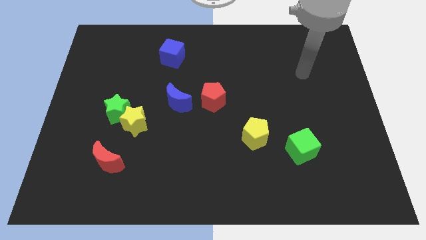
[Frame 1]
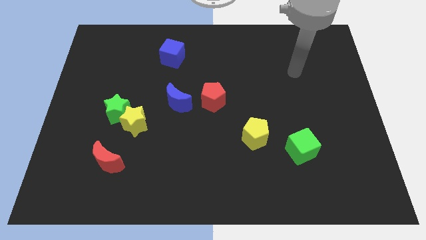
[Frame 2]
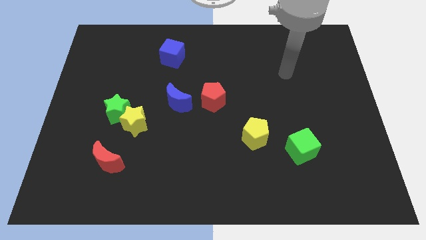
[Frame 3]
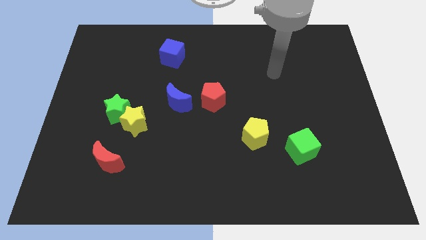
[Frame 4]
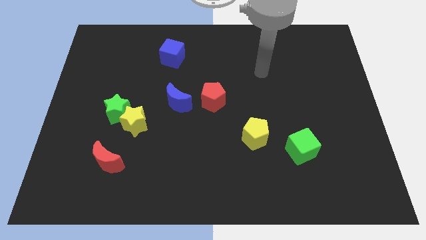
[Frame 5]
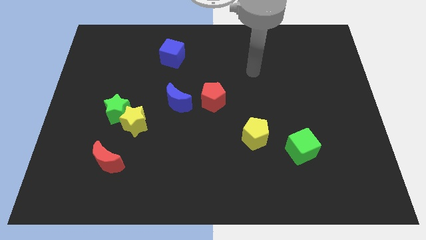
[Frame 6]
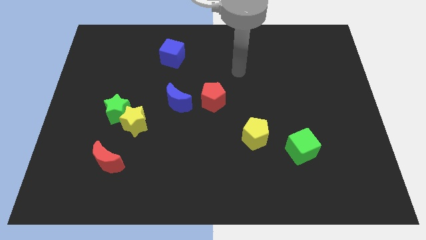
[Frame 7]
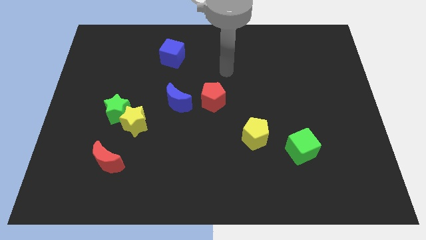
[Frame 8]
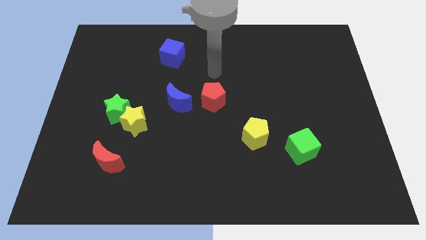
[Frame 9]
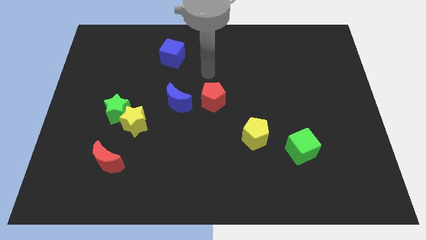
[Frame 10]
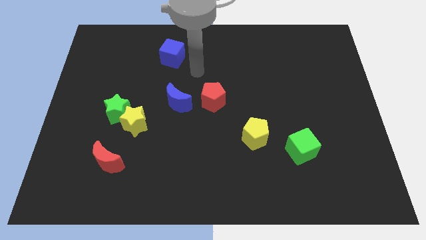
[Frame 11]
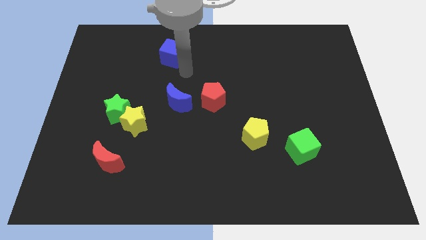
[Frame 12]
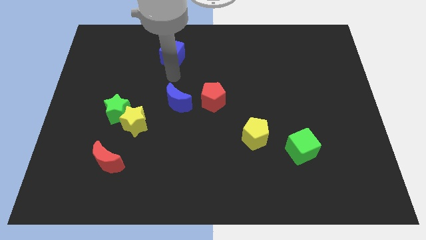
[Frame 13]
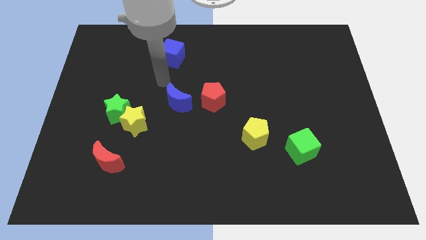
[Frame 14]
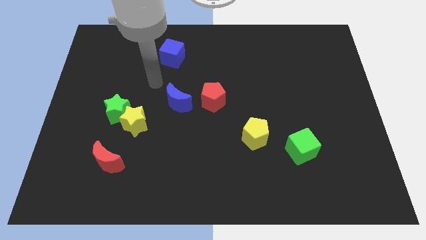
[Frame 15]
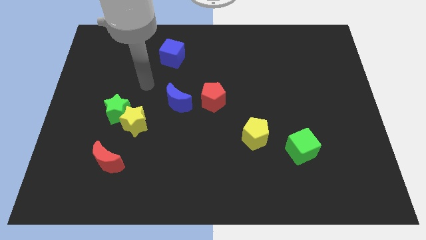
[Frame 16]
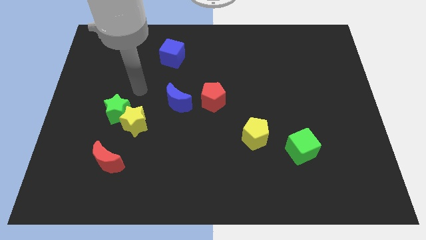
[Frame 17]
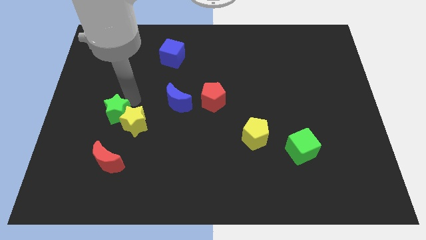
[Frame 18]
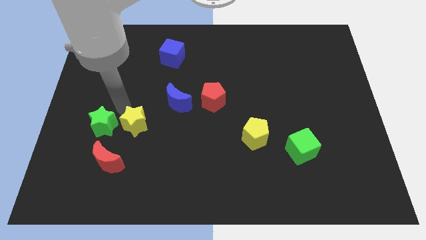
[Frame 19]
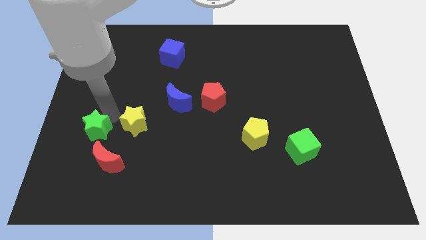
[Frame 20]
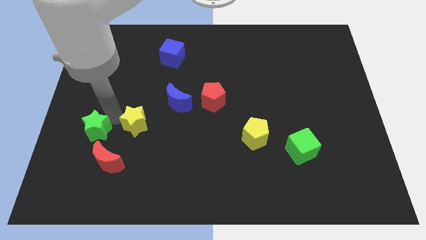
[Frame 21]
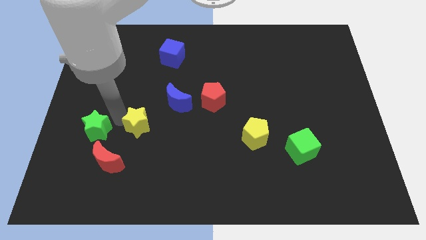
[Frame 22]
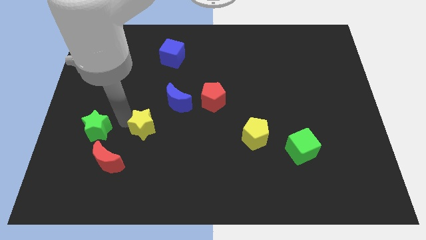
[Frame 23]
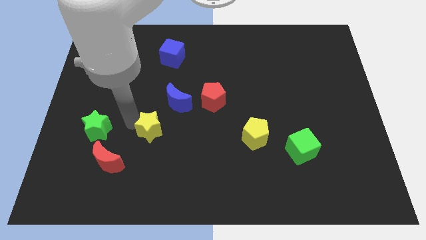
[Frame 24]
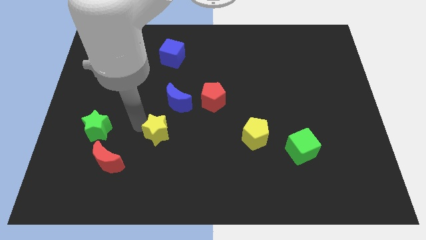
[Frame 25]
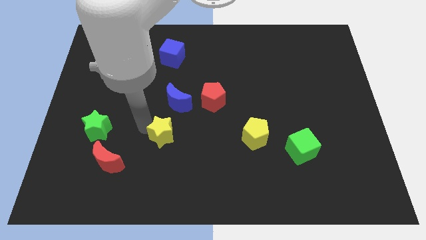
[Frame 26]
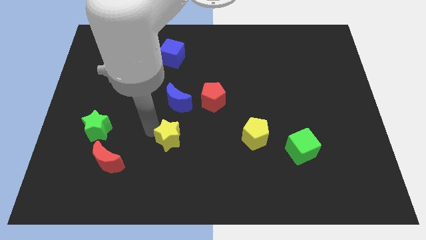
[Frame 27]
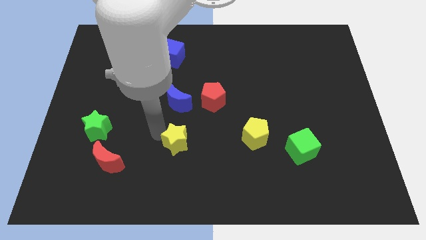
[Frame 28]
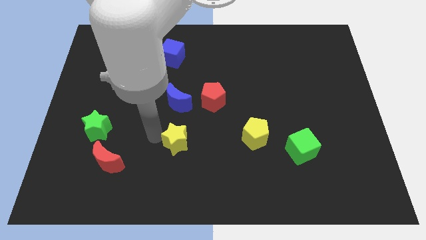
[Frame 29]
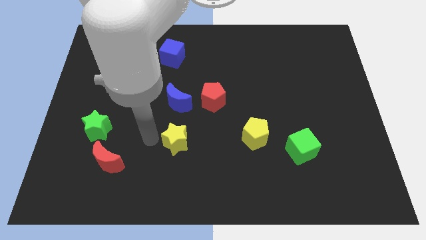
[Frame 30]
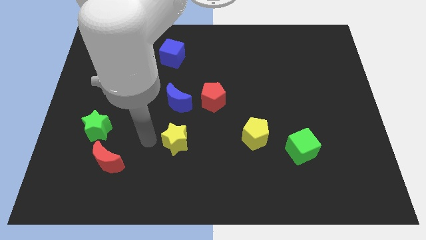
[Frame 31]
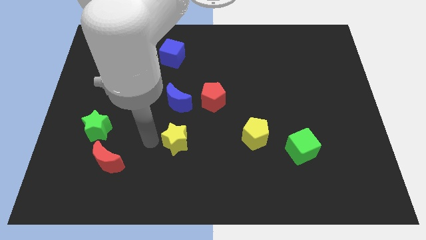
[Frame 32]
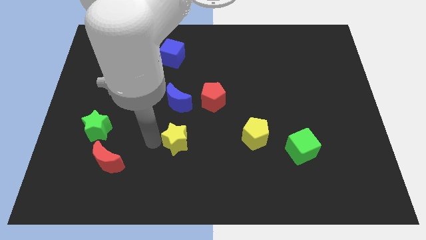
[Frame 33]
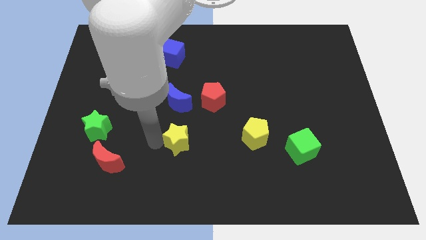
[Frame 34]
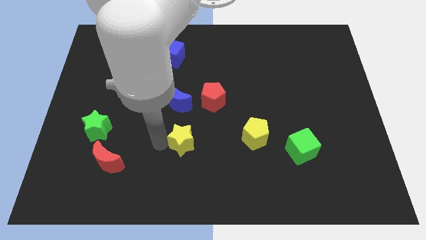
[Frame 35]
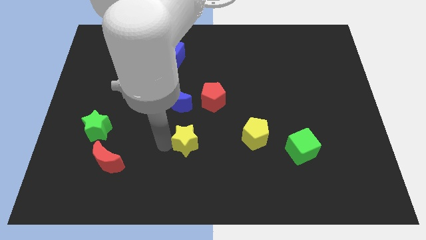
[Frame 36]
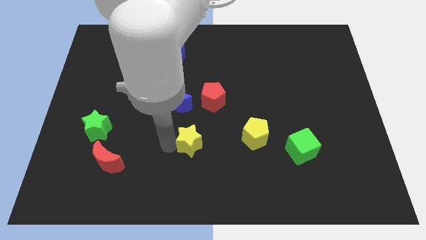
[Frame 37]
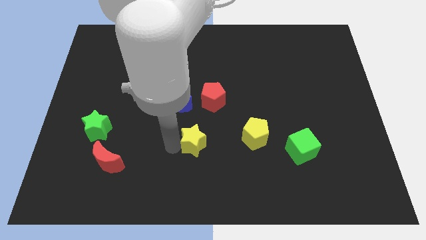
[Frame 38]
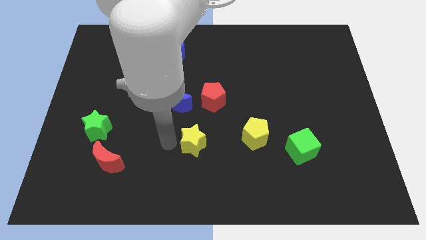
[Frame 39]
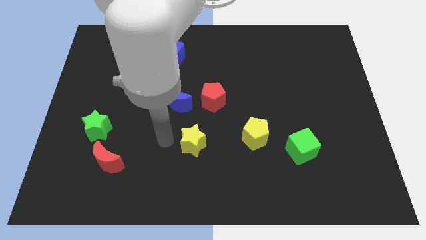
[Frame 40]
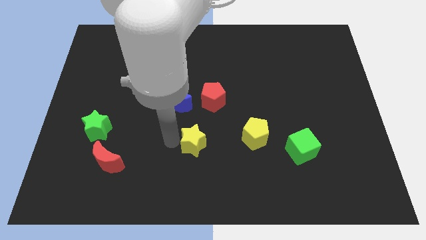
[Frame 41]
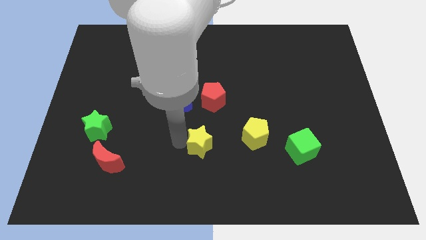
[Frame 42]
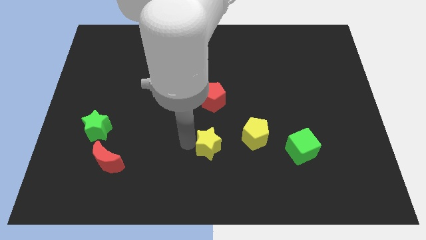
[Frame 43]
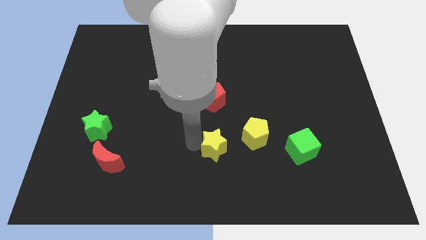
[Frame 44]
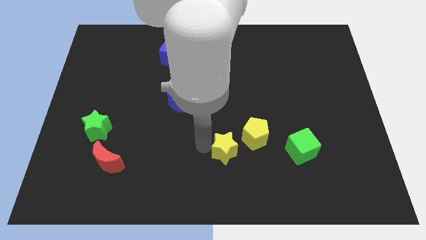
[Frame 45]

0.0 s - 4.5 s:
push the yellow star to the left of the green cube

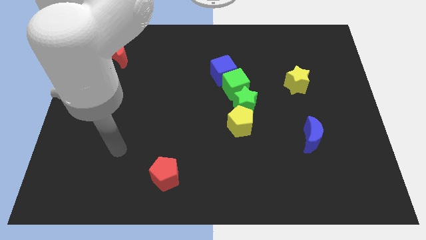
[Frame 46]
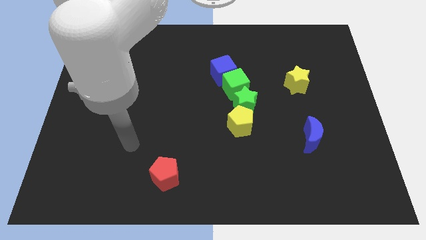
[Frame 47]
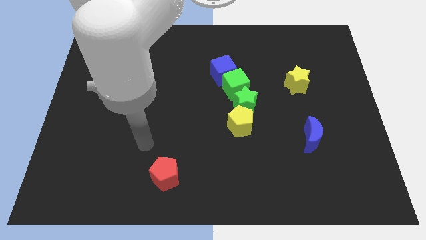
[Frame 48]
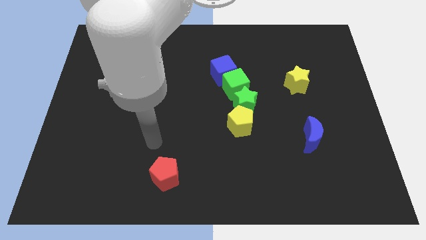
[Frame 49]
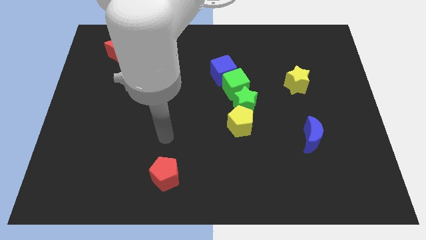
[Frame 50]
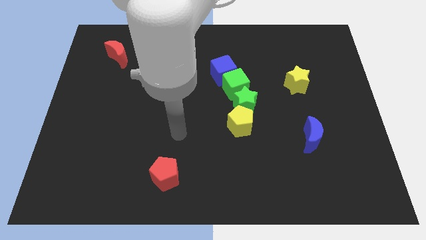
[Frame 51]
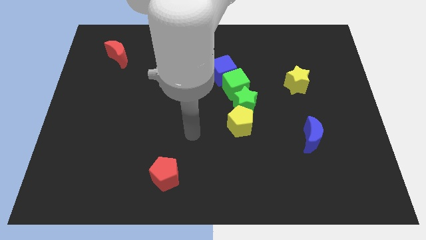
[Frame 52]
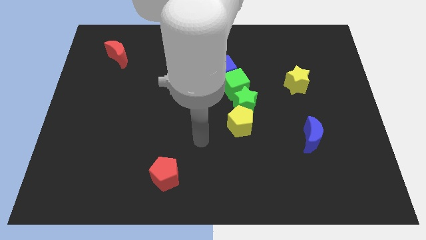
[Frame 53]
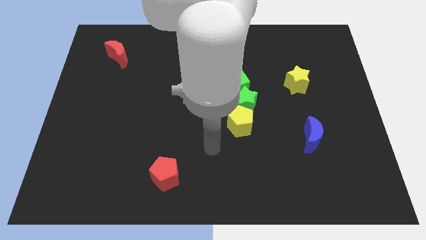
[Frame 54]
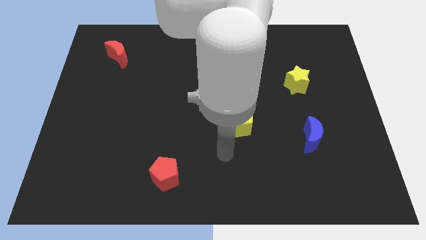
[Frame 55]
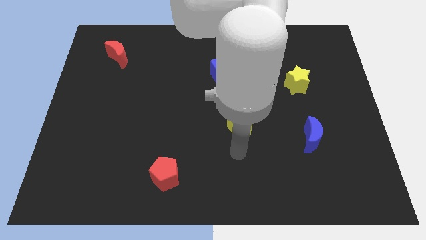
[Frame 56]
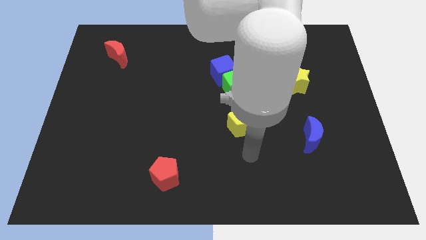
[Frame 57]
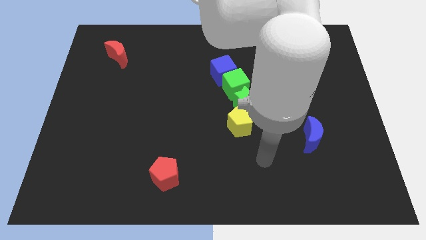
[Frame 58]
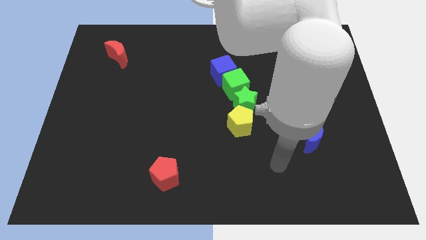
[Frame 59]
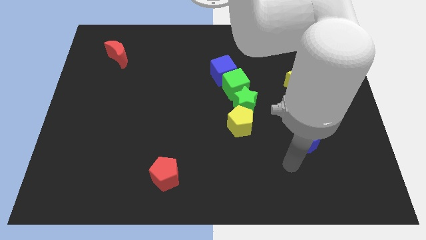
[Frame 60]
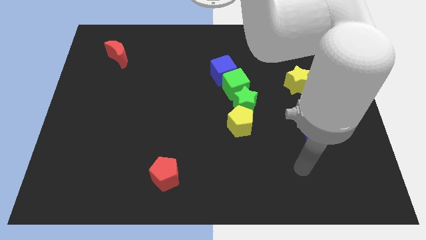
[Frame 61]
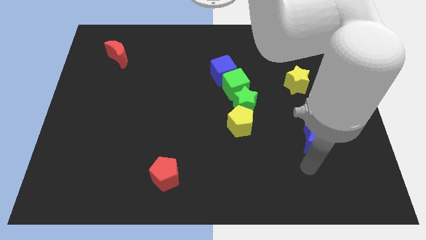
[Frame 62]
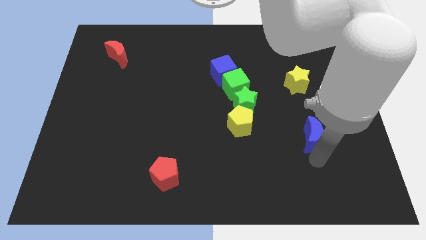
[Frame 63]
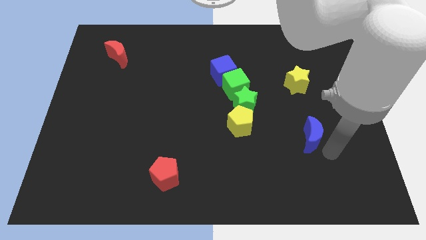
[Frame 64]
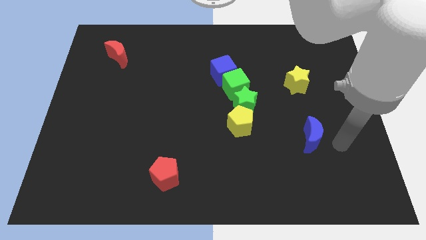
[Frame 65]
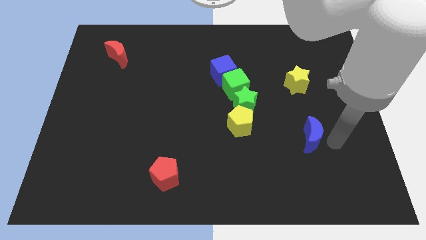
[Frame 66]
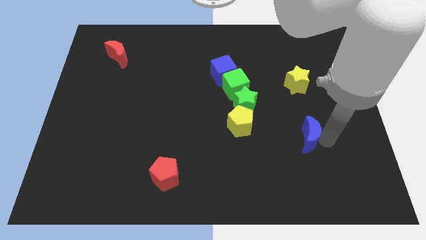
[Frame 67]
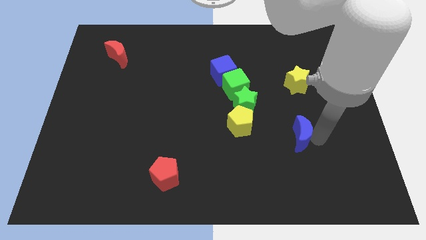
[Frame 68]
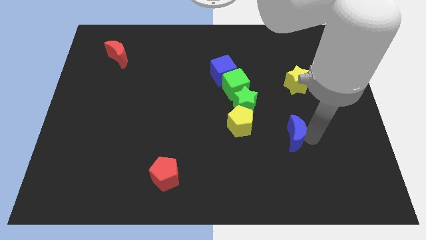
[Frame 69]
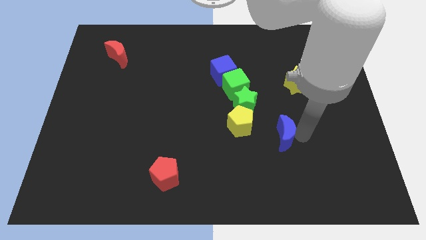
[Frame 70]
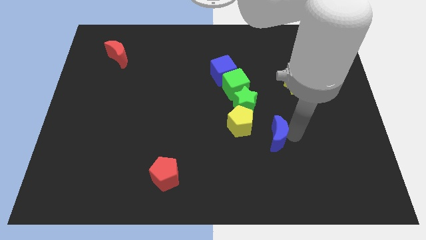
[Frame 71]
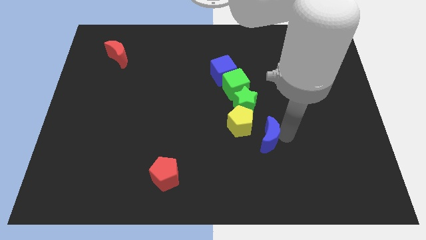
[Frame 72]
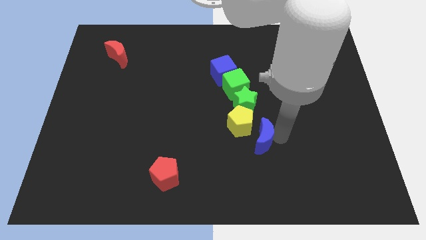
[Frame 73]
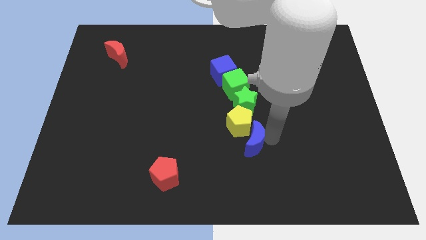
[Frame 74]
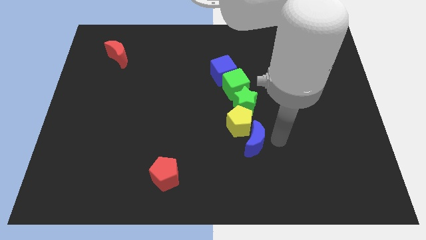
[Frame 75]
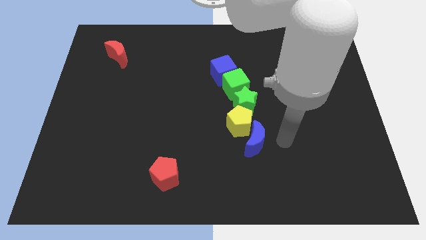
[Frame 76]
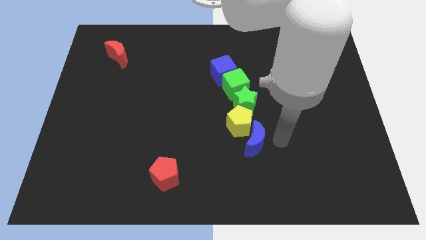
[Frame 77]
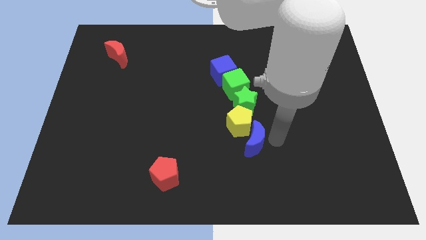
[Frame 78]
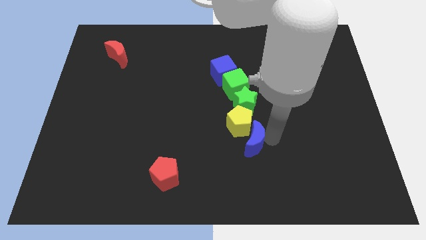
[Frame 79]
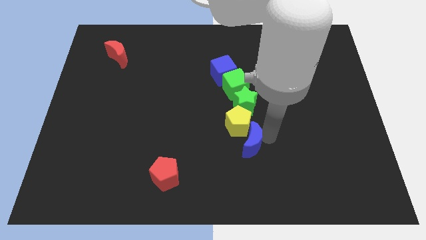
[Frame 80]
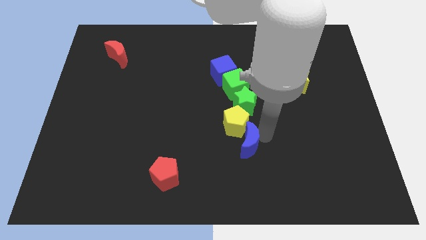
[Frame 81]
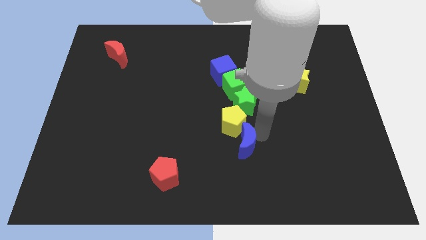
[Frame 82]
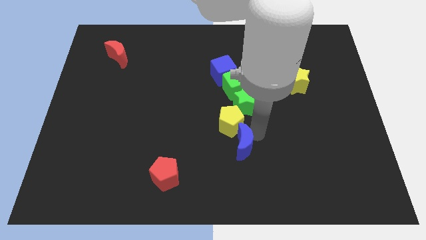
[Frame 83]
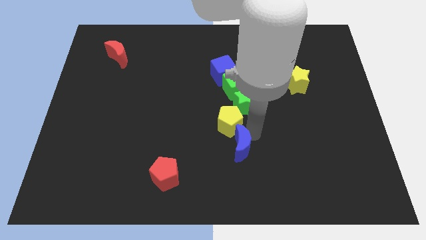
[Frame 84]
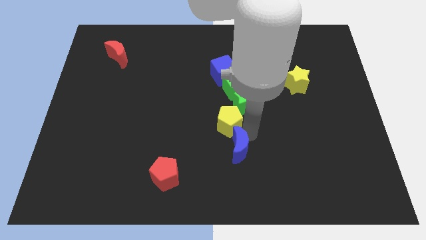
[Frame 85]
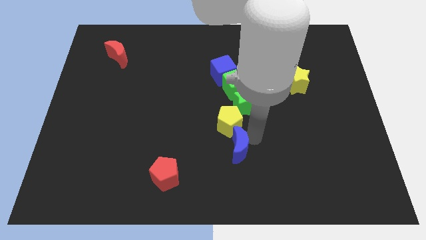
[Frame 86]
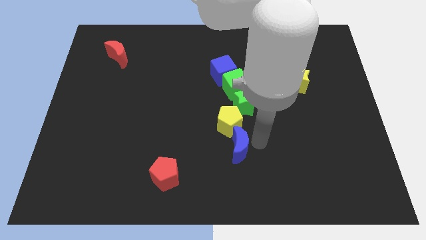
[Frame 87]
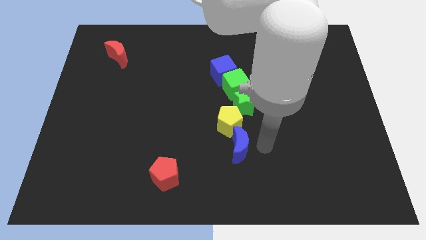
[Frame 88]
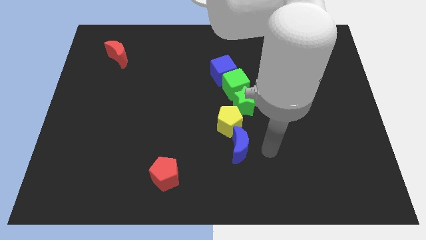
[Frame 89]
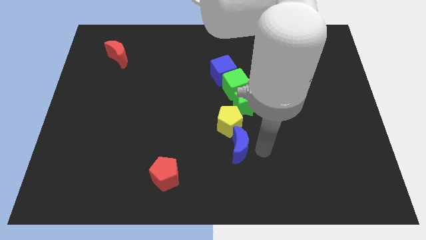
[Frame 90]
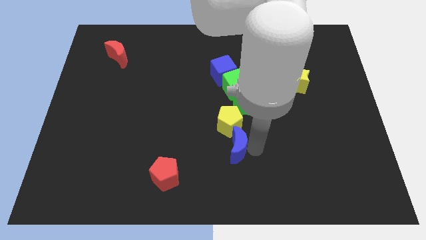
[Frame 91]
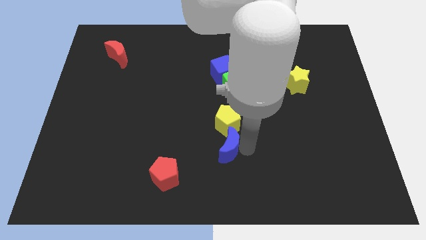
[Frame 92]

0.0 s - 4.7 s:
push the blue moon diagonally down and to the left of the yellow pentagon
